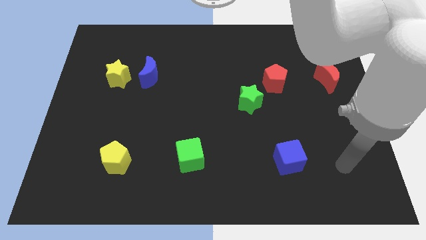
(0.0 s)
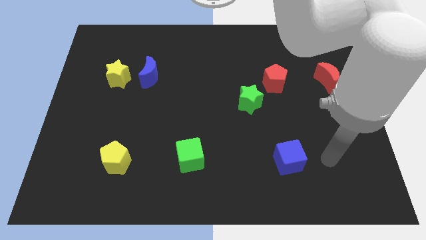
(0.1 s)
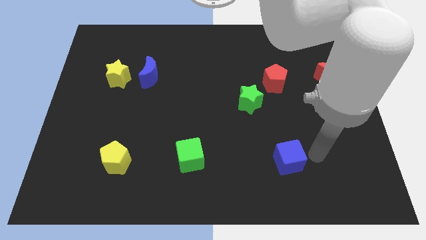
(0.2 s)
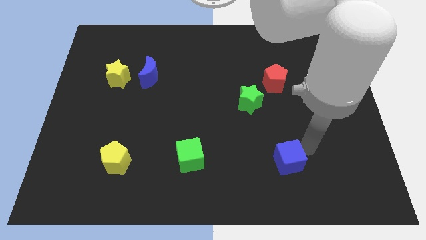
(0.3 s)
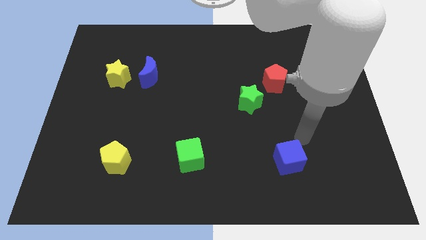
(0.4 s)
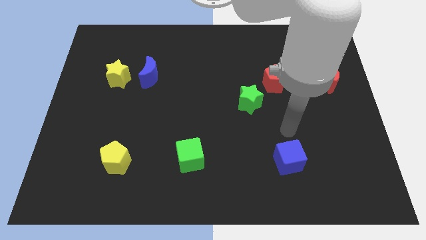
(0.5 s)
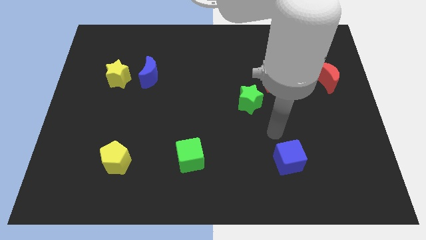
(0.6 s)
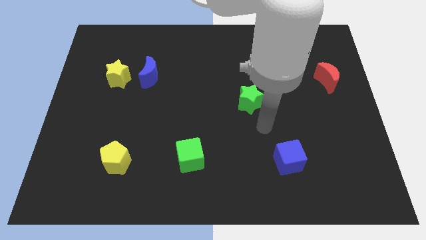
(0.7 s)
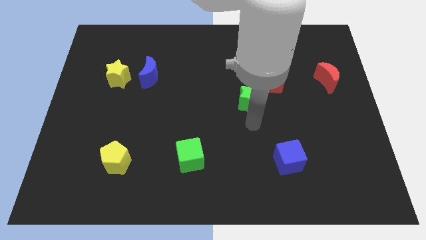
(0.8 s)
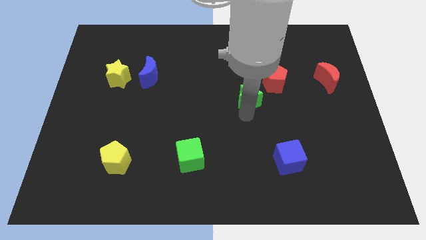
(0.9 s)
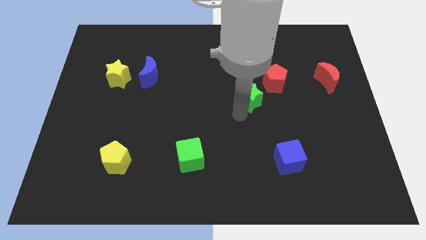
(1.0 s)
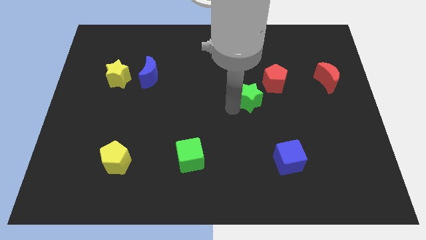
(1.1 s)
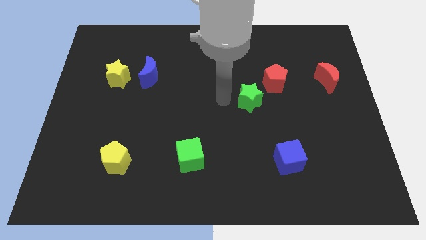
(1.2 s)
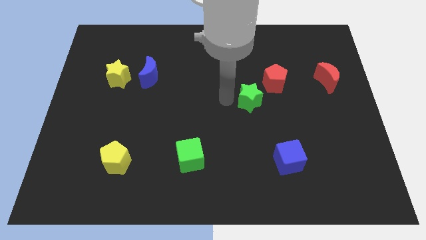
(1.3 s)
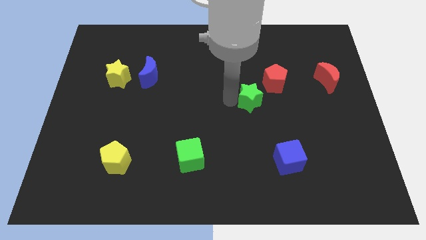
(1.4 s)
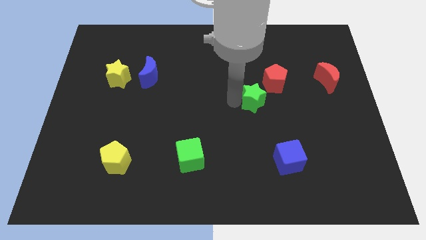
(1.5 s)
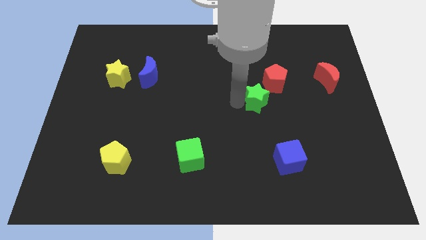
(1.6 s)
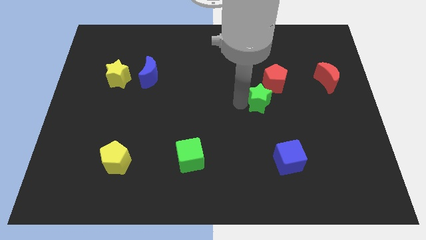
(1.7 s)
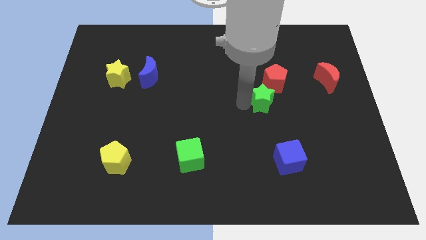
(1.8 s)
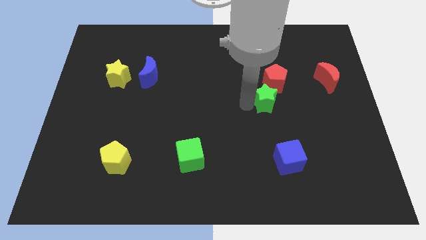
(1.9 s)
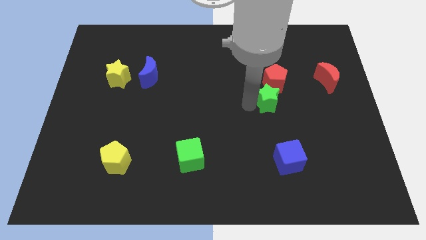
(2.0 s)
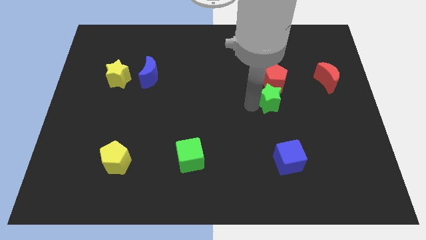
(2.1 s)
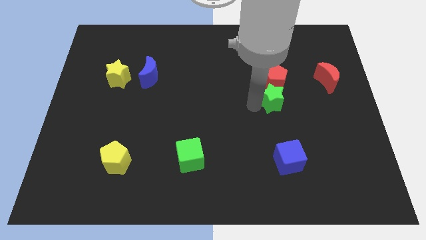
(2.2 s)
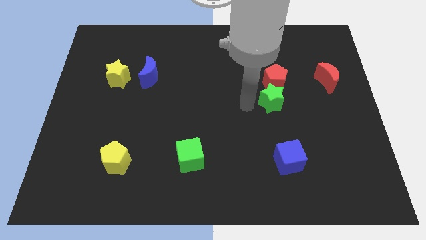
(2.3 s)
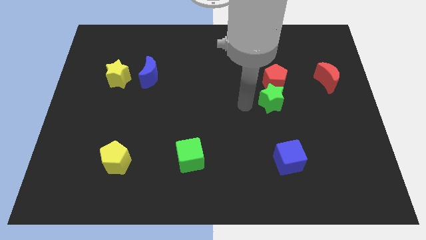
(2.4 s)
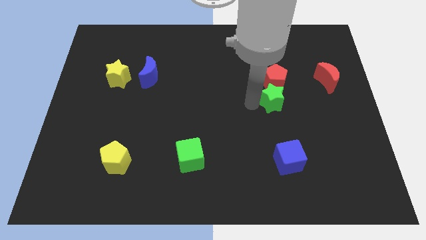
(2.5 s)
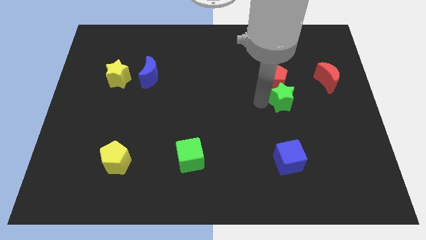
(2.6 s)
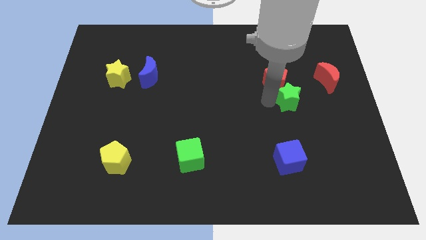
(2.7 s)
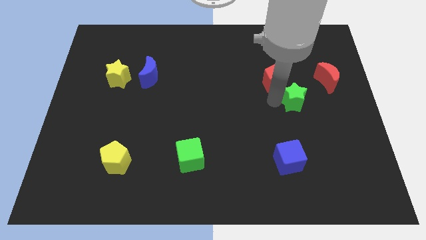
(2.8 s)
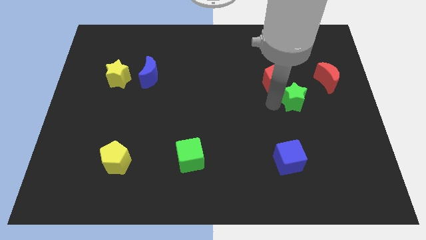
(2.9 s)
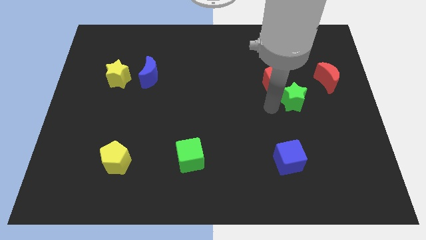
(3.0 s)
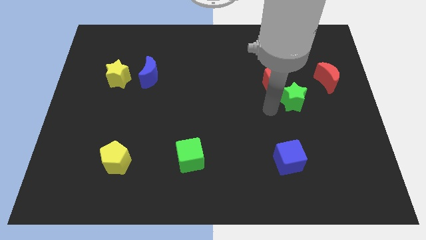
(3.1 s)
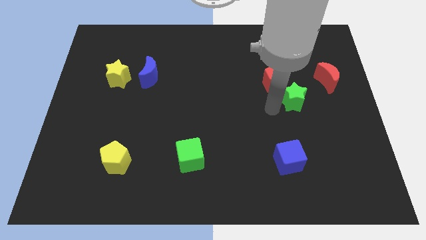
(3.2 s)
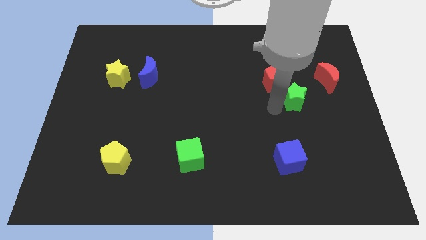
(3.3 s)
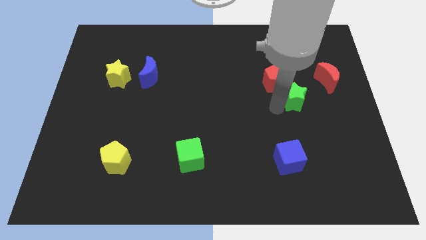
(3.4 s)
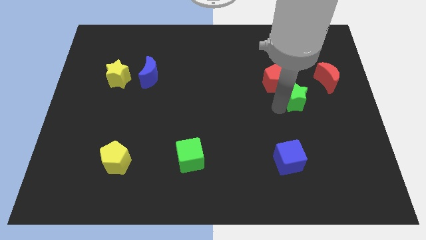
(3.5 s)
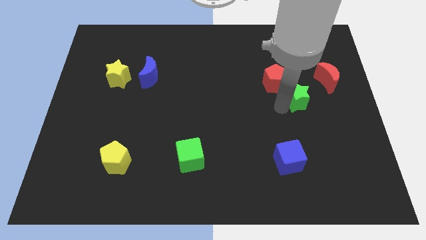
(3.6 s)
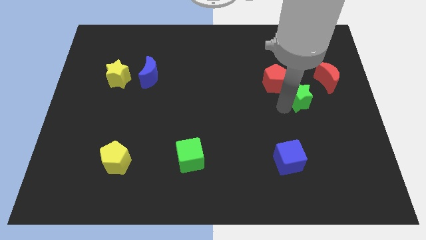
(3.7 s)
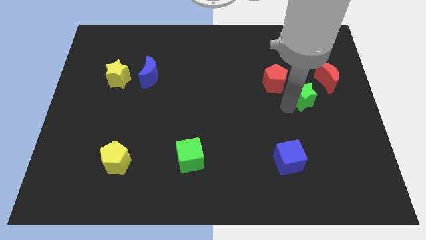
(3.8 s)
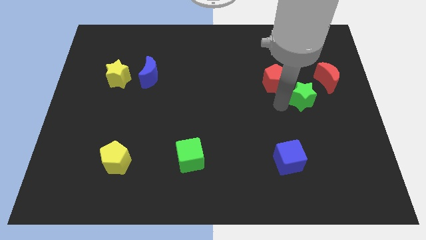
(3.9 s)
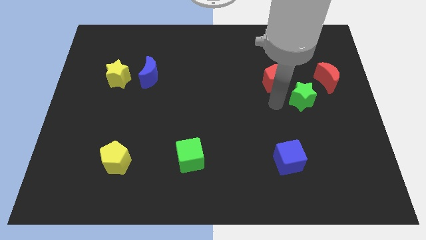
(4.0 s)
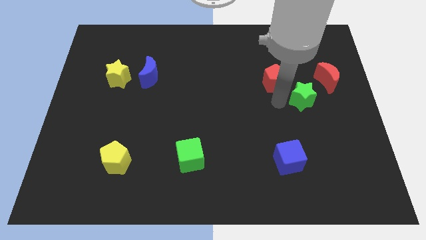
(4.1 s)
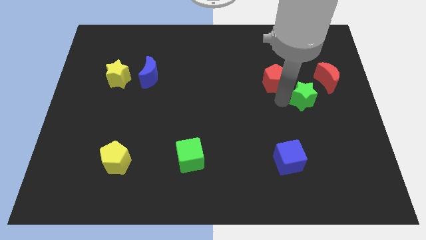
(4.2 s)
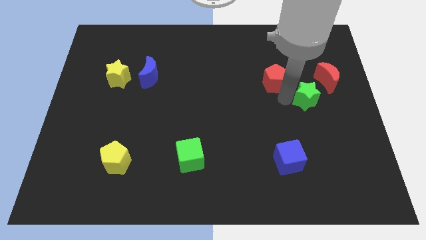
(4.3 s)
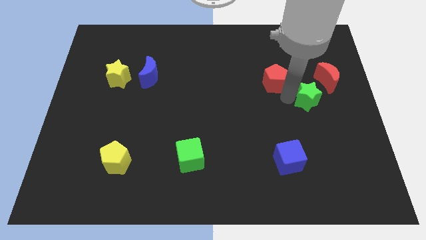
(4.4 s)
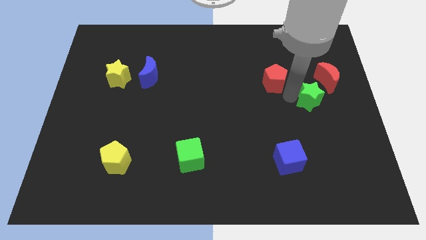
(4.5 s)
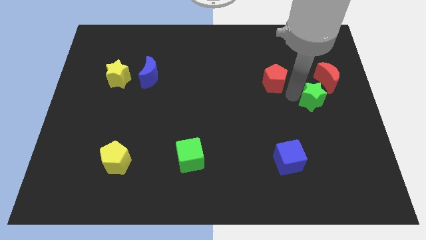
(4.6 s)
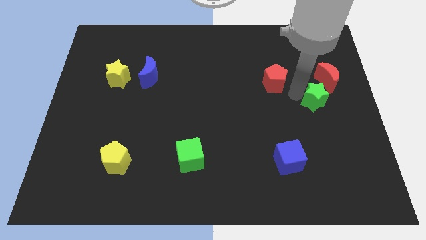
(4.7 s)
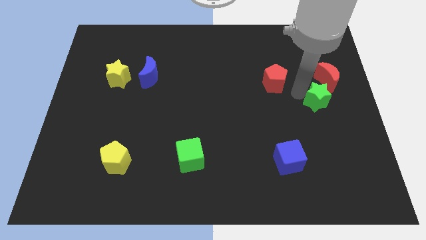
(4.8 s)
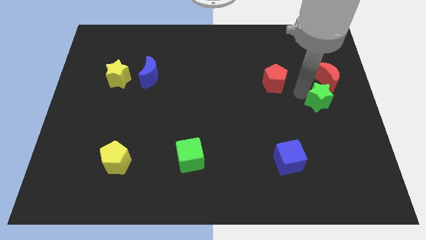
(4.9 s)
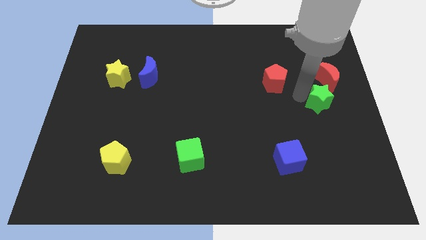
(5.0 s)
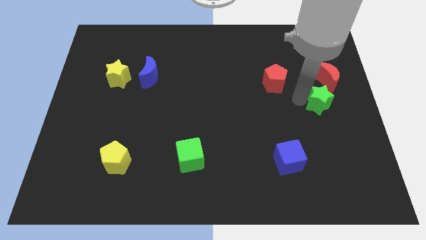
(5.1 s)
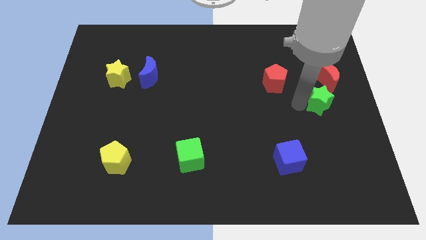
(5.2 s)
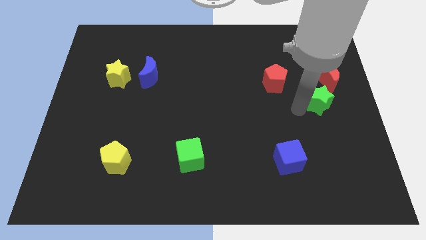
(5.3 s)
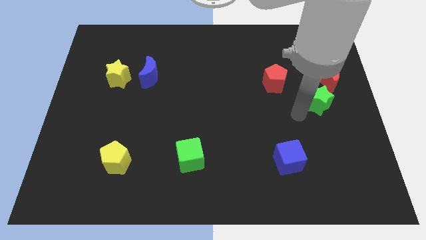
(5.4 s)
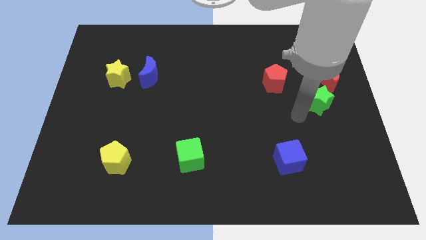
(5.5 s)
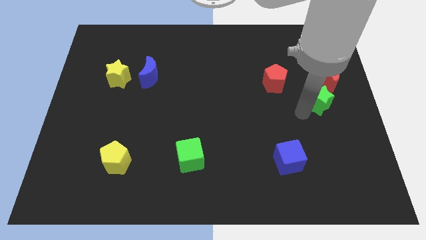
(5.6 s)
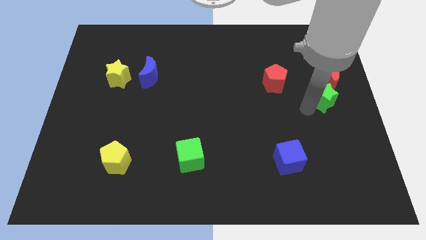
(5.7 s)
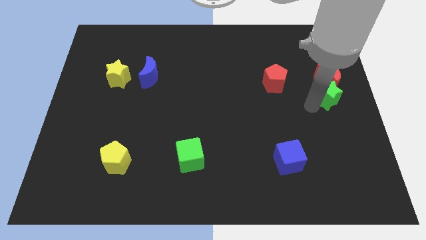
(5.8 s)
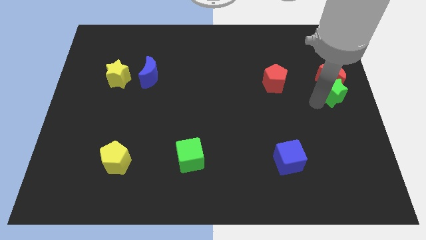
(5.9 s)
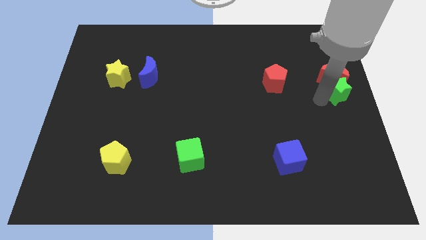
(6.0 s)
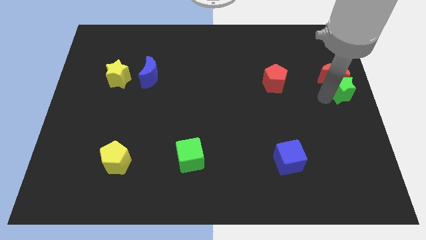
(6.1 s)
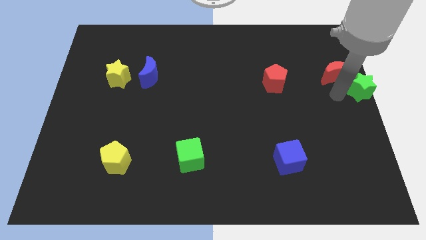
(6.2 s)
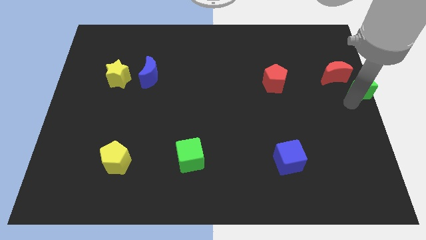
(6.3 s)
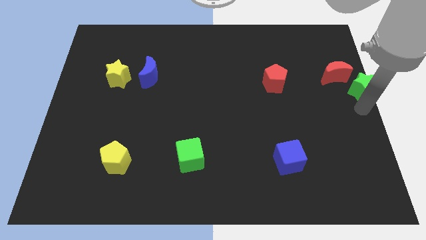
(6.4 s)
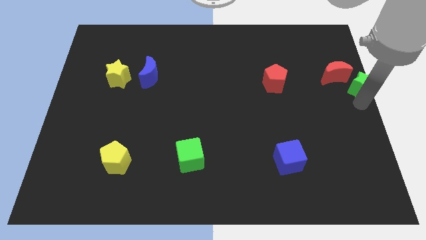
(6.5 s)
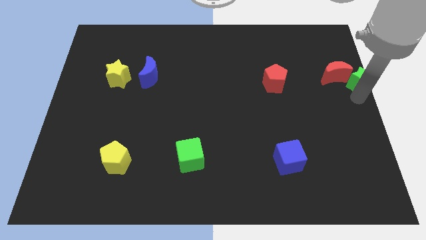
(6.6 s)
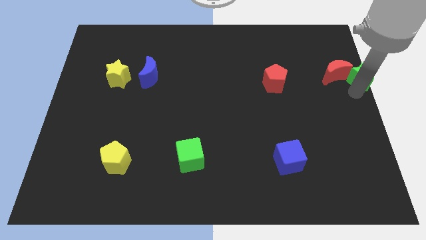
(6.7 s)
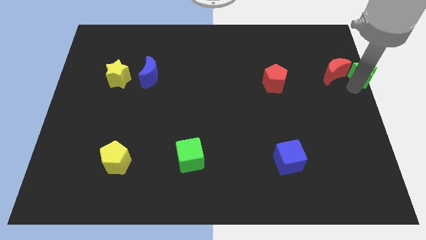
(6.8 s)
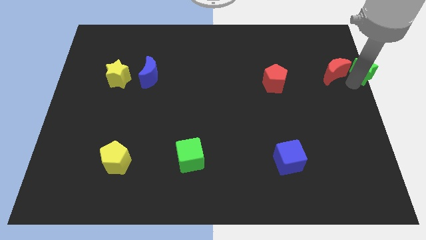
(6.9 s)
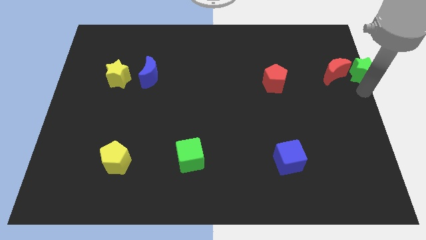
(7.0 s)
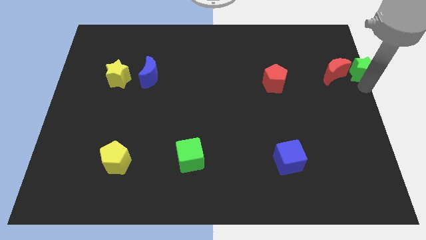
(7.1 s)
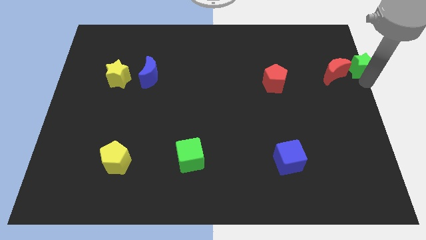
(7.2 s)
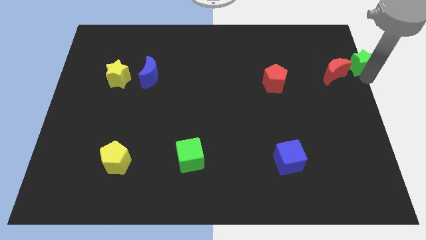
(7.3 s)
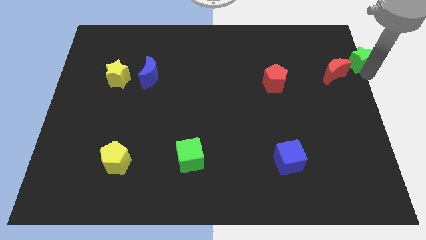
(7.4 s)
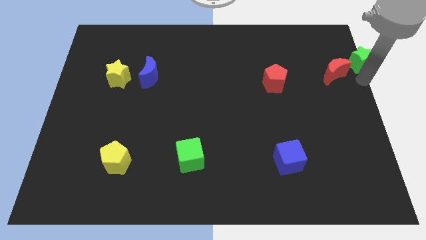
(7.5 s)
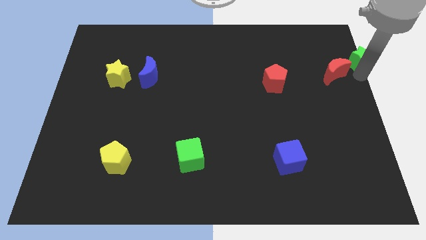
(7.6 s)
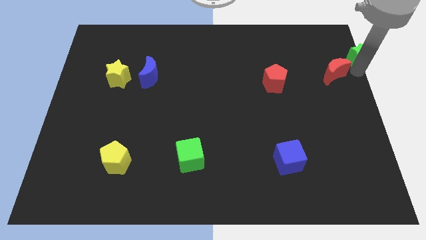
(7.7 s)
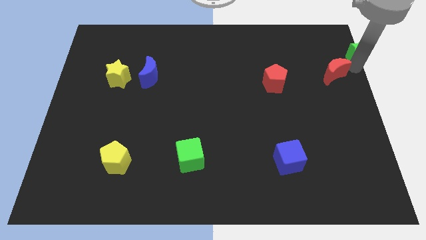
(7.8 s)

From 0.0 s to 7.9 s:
put the green star to the top right corner
